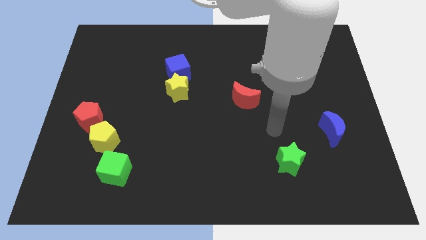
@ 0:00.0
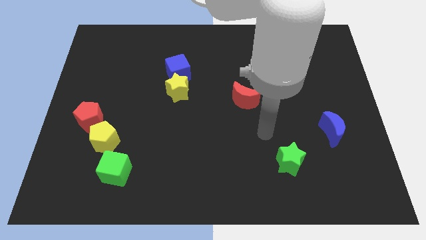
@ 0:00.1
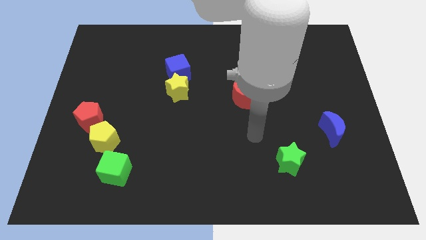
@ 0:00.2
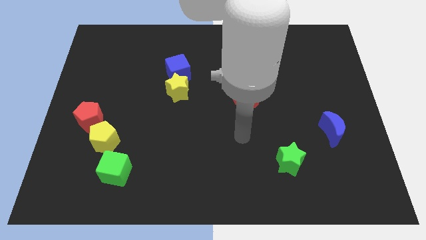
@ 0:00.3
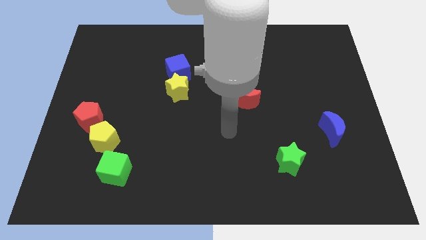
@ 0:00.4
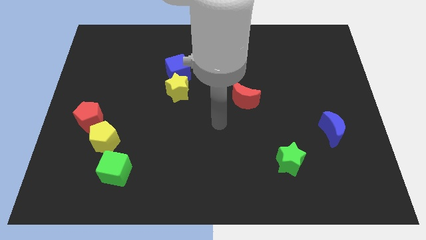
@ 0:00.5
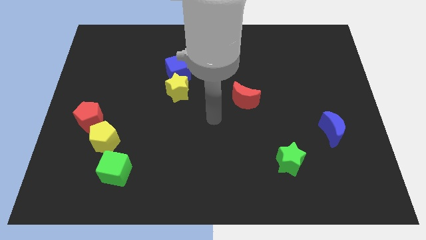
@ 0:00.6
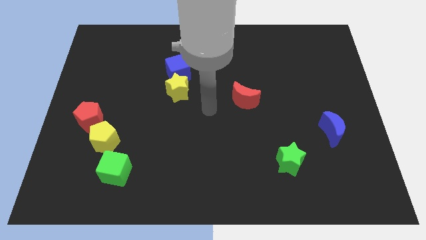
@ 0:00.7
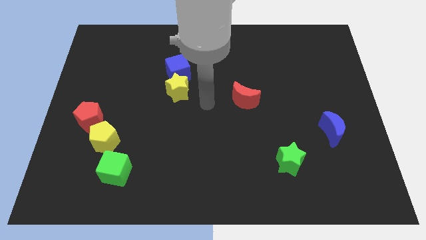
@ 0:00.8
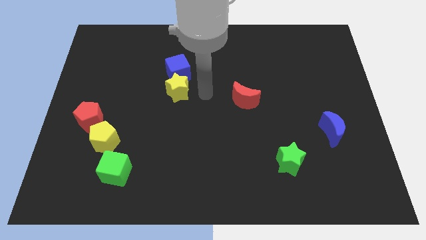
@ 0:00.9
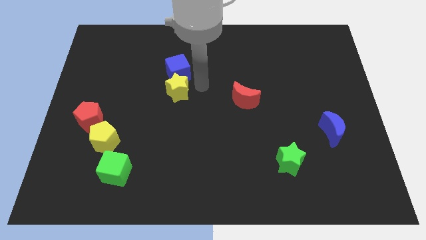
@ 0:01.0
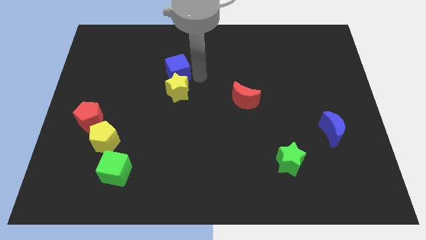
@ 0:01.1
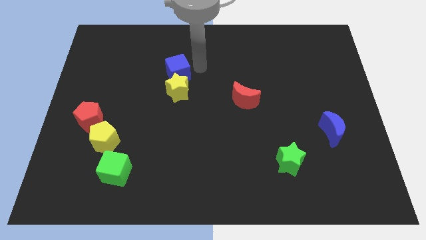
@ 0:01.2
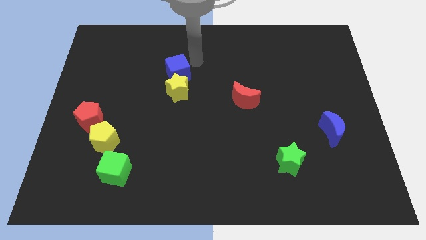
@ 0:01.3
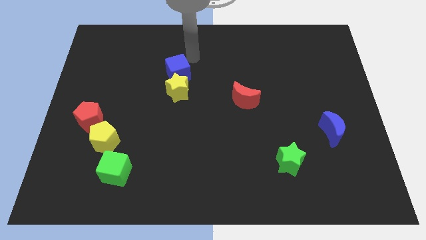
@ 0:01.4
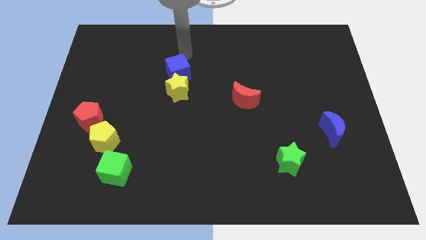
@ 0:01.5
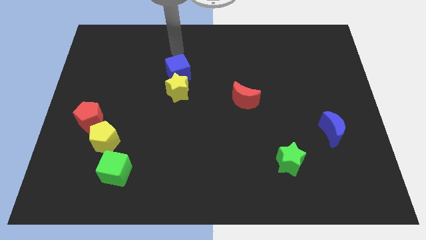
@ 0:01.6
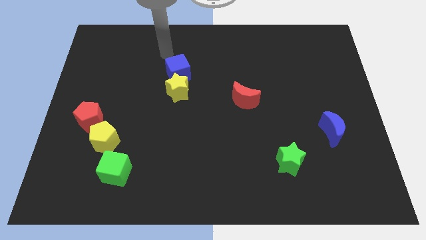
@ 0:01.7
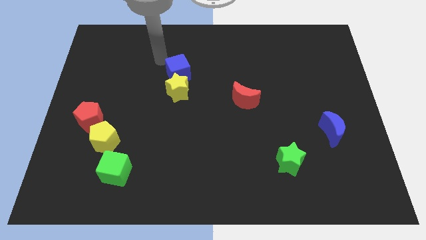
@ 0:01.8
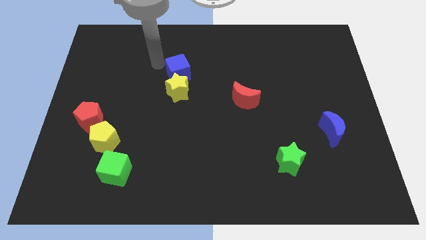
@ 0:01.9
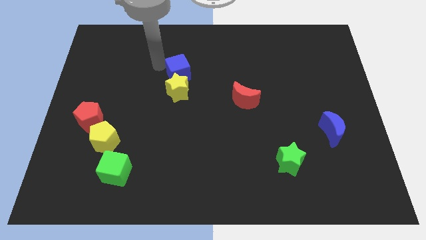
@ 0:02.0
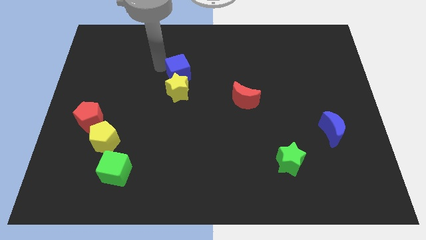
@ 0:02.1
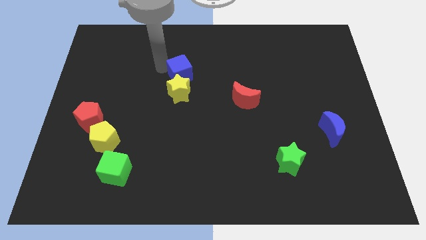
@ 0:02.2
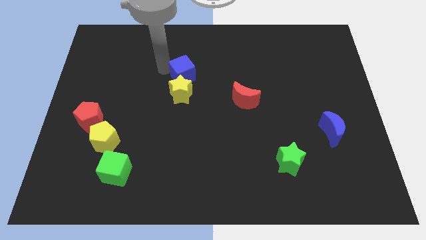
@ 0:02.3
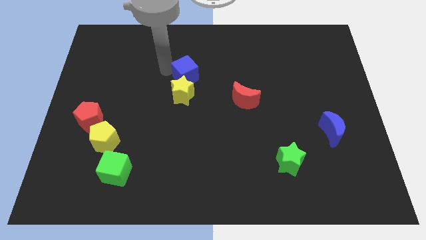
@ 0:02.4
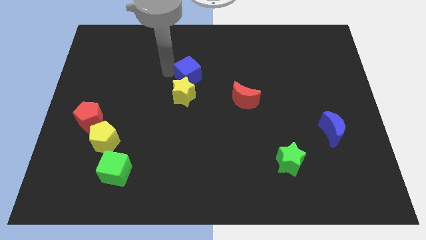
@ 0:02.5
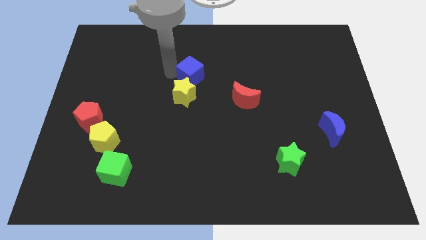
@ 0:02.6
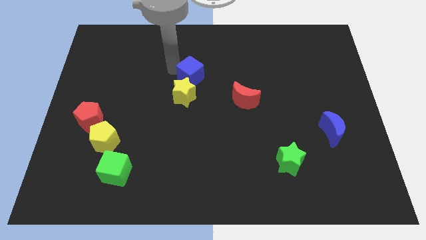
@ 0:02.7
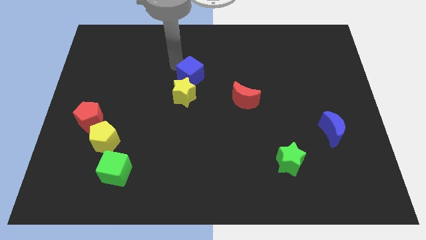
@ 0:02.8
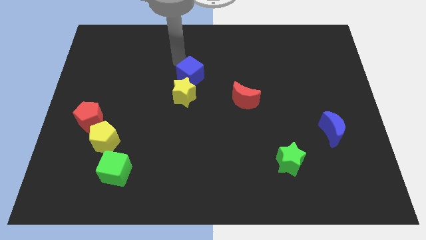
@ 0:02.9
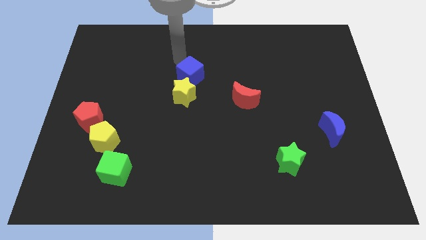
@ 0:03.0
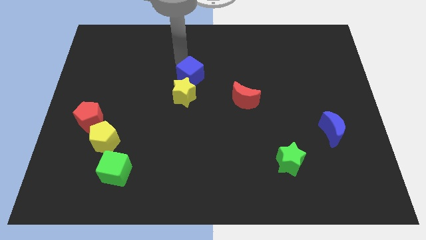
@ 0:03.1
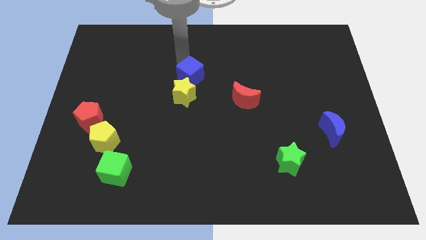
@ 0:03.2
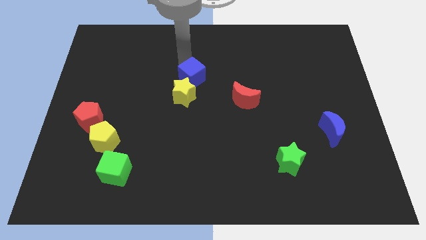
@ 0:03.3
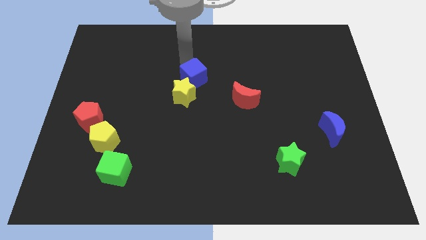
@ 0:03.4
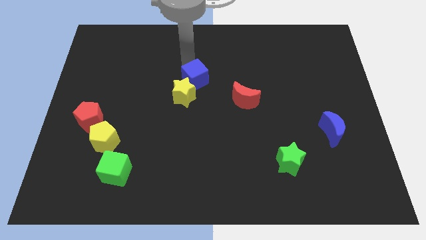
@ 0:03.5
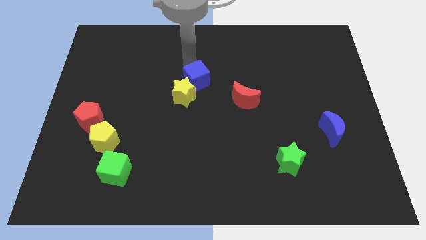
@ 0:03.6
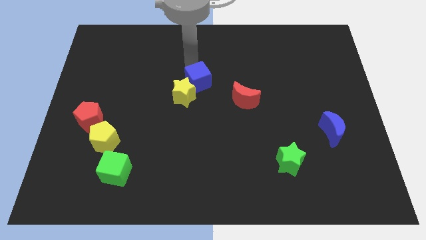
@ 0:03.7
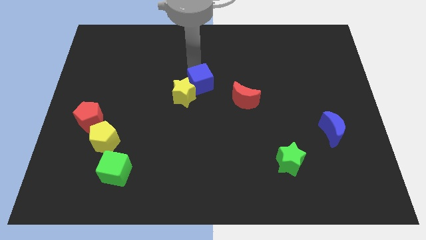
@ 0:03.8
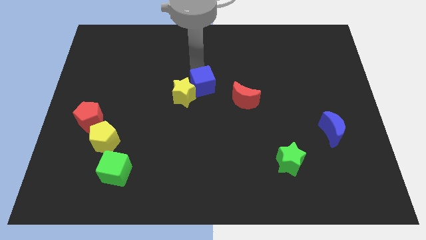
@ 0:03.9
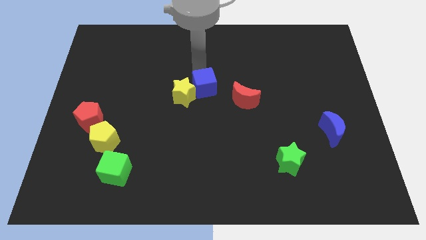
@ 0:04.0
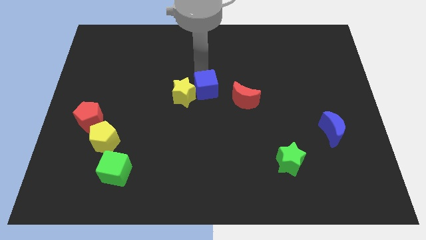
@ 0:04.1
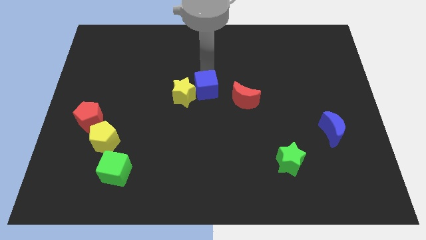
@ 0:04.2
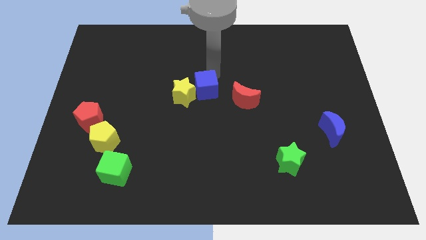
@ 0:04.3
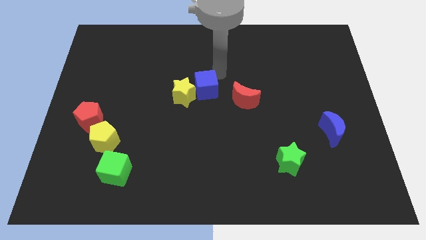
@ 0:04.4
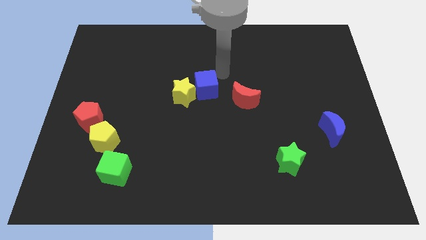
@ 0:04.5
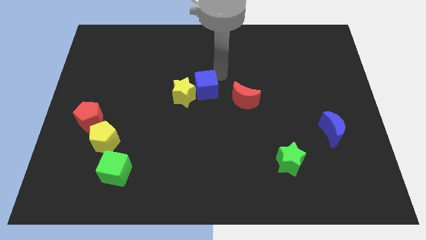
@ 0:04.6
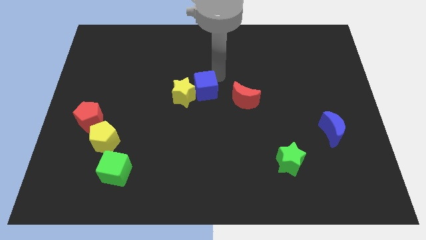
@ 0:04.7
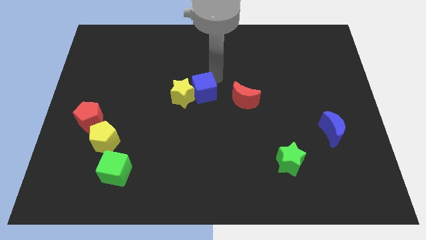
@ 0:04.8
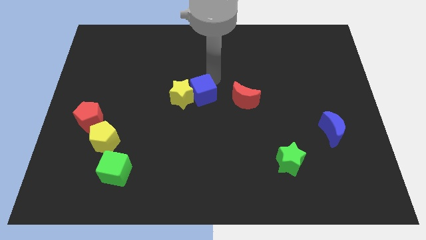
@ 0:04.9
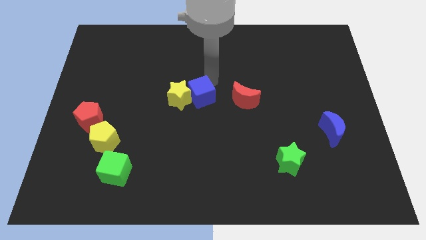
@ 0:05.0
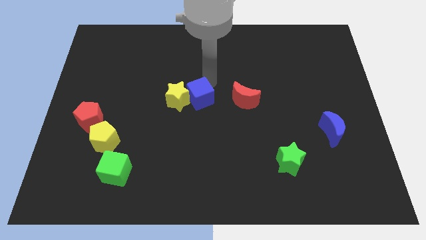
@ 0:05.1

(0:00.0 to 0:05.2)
slide the blue cube downwards a little

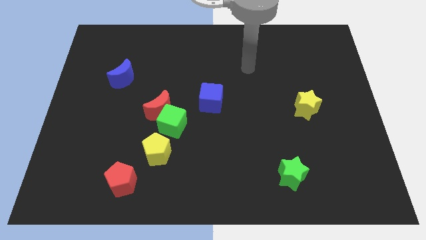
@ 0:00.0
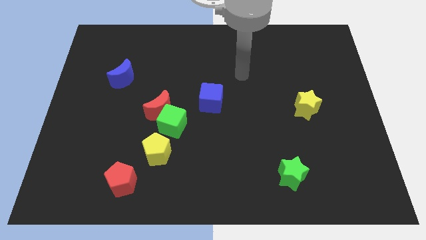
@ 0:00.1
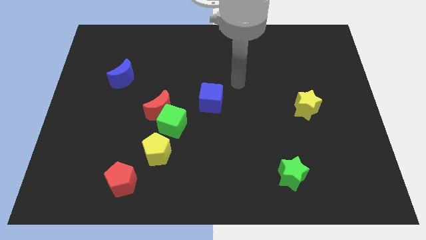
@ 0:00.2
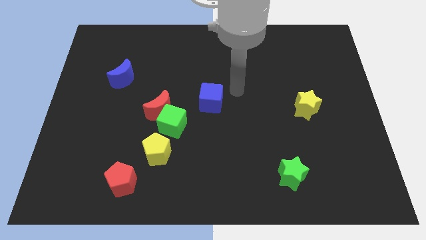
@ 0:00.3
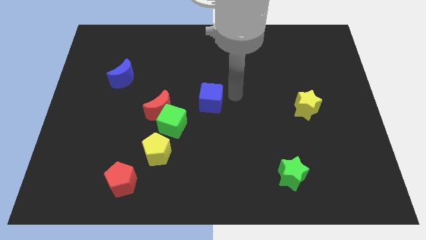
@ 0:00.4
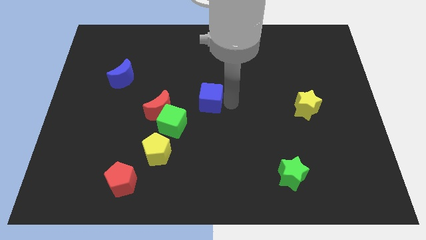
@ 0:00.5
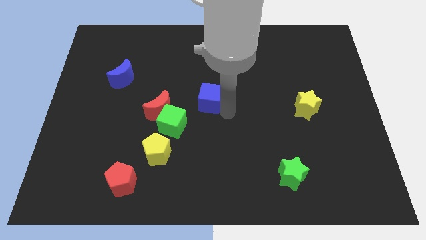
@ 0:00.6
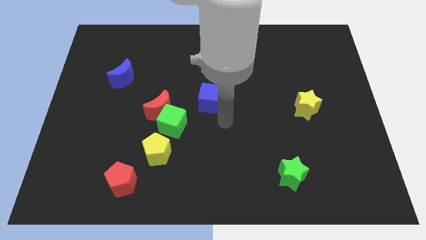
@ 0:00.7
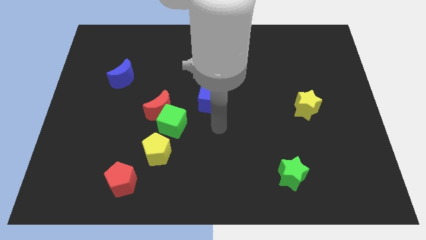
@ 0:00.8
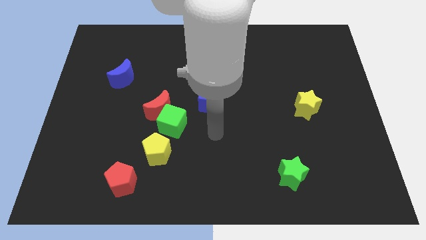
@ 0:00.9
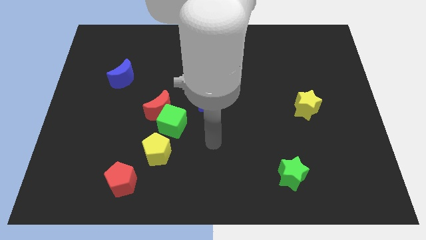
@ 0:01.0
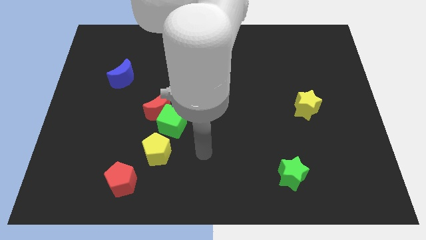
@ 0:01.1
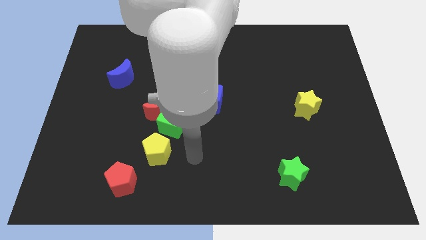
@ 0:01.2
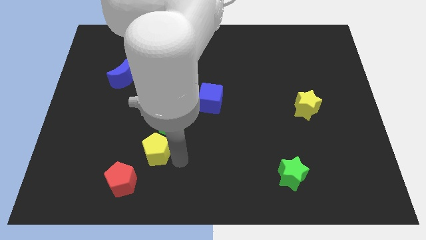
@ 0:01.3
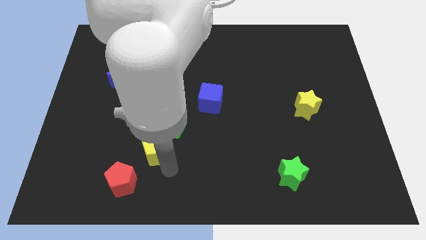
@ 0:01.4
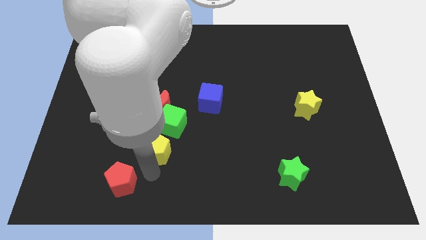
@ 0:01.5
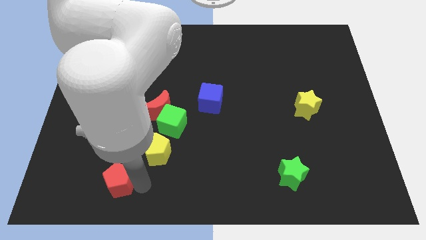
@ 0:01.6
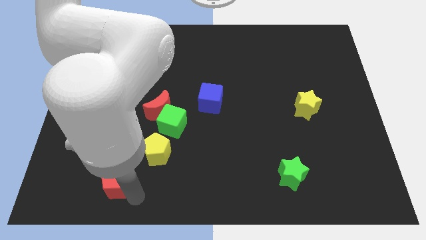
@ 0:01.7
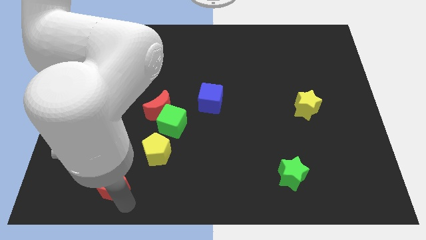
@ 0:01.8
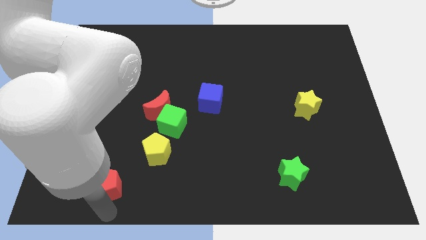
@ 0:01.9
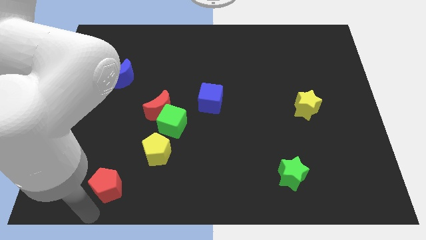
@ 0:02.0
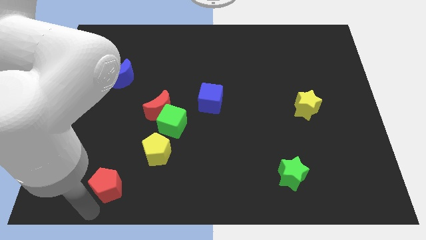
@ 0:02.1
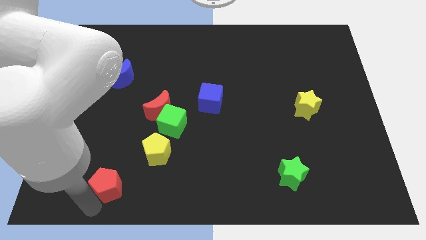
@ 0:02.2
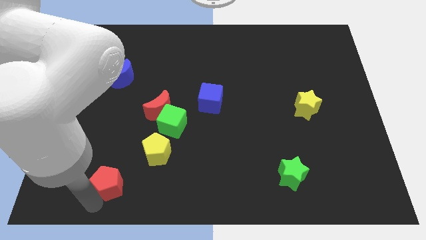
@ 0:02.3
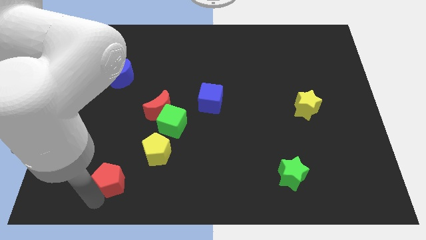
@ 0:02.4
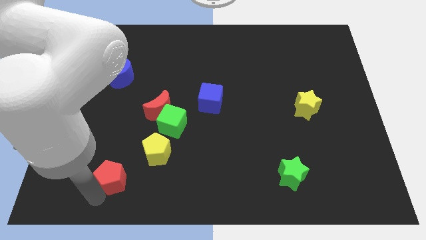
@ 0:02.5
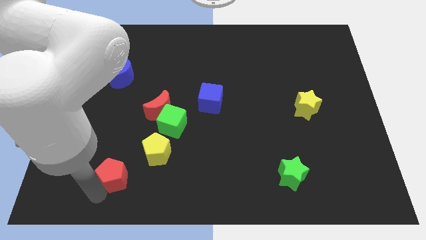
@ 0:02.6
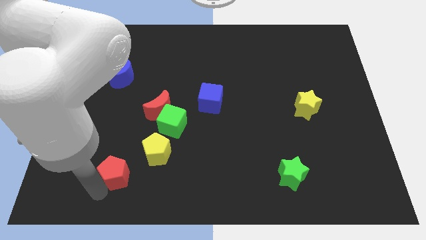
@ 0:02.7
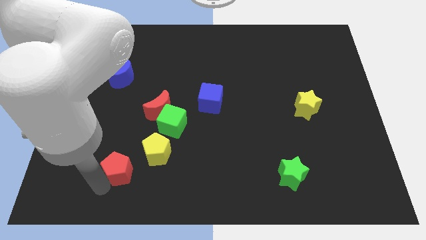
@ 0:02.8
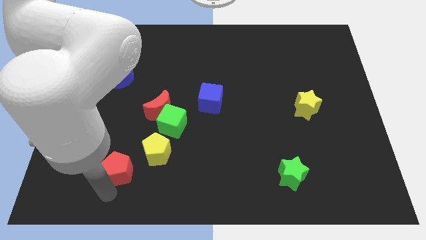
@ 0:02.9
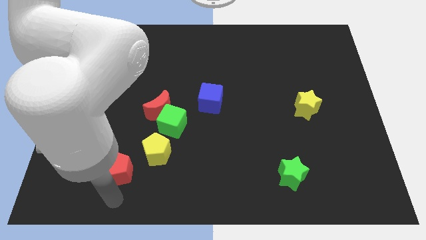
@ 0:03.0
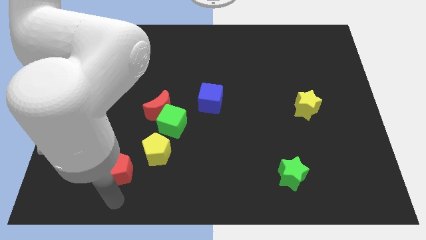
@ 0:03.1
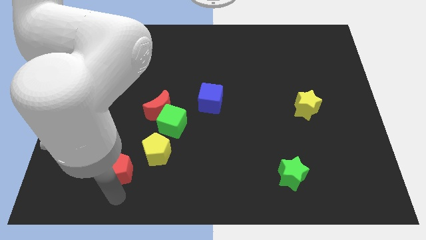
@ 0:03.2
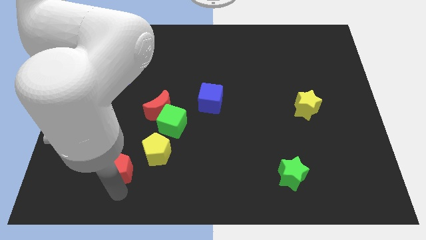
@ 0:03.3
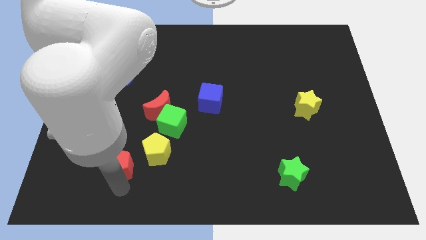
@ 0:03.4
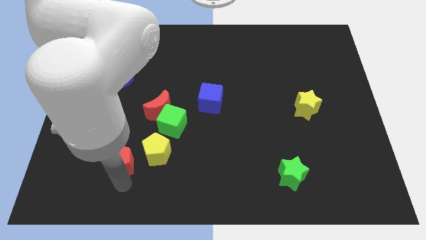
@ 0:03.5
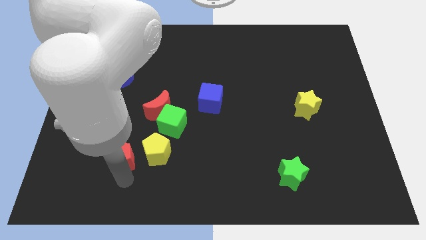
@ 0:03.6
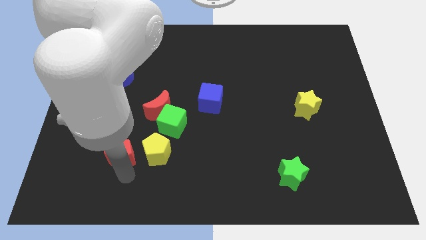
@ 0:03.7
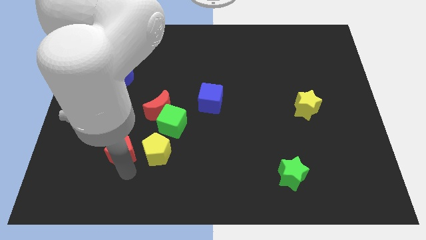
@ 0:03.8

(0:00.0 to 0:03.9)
slide the red pentagon a little upwards
